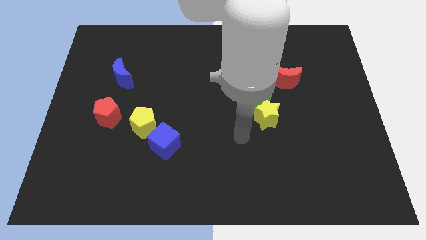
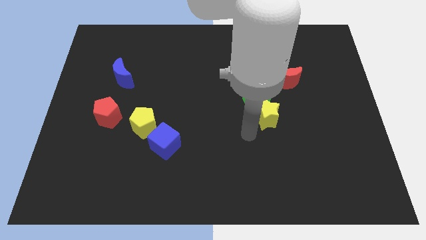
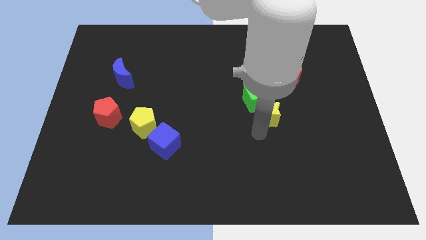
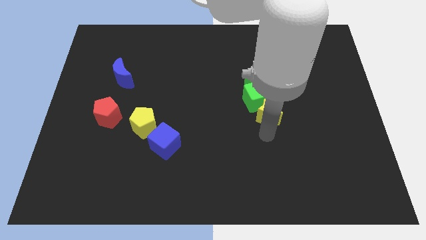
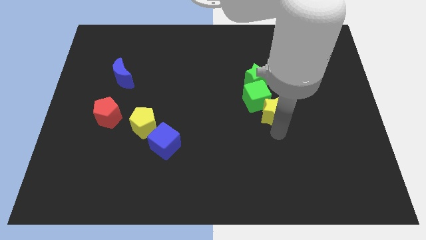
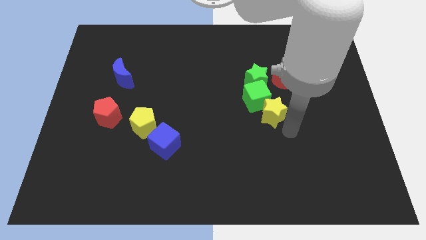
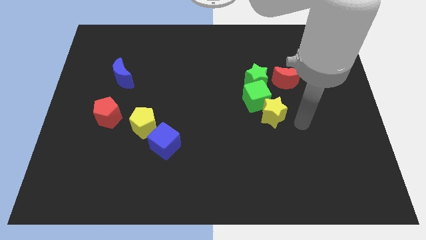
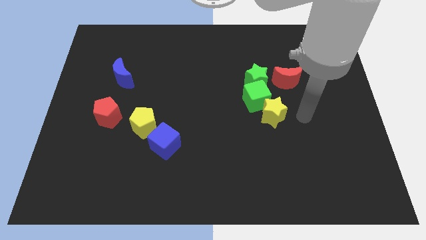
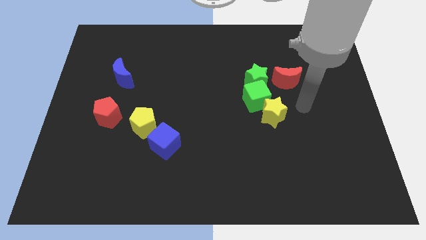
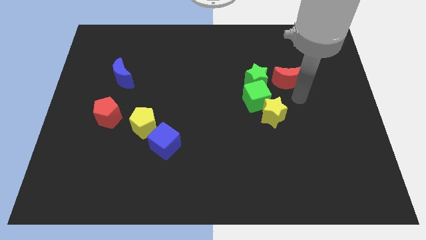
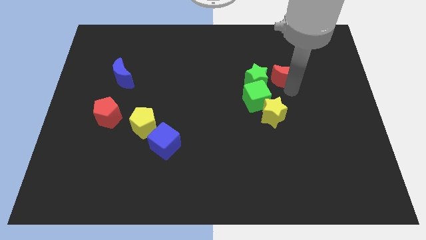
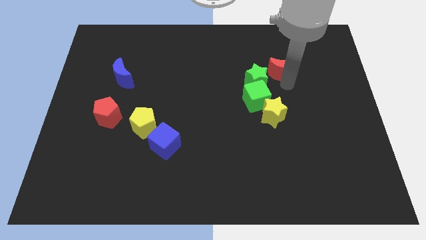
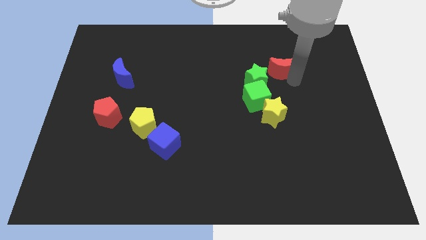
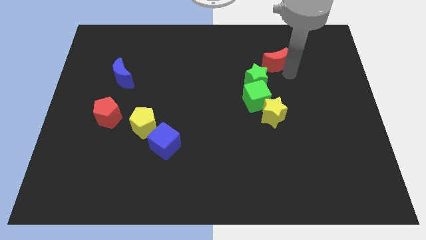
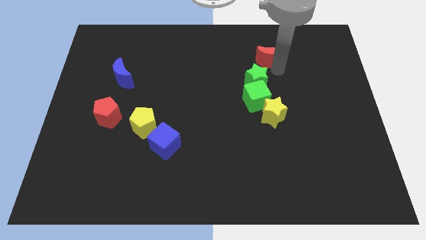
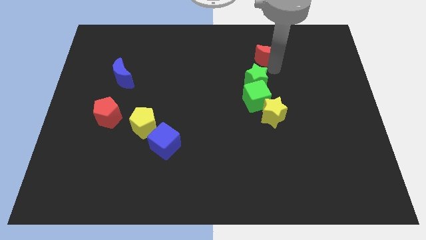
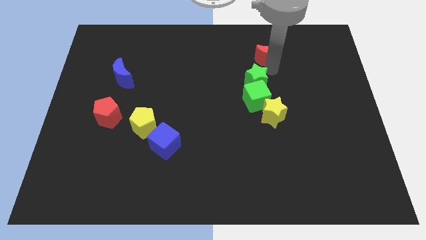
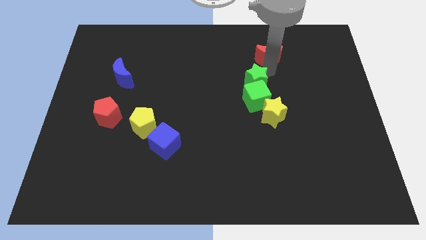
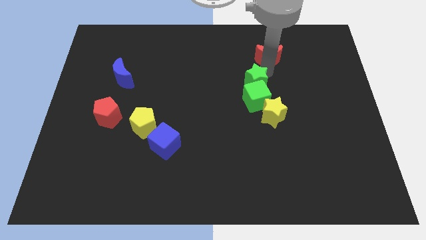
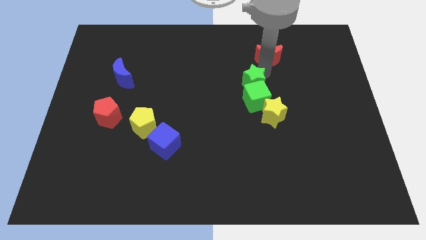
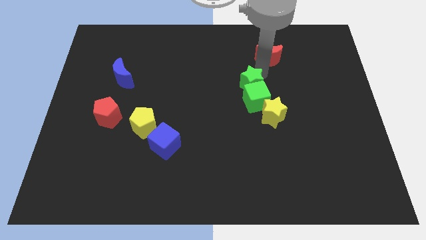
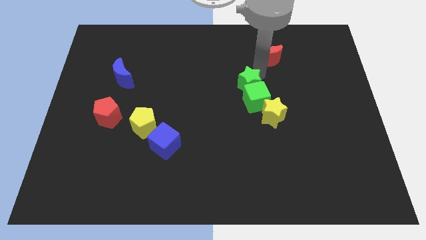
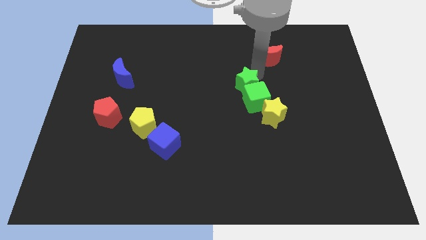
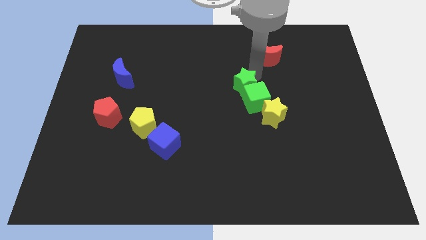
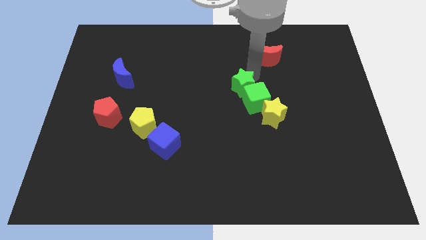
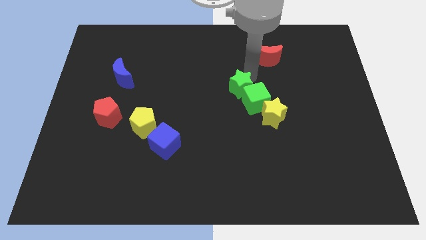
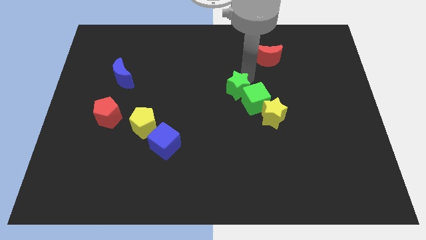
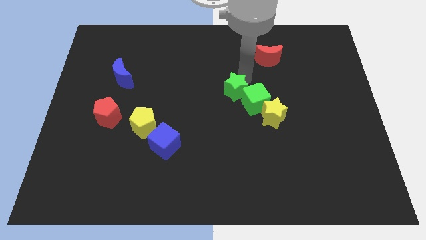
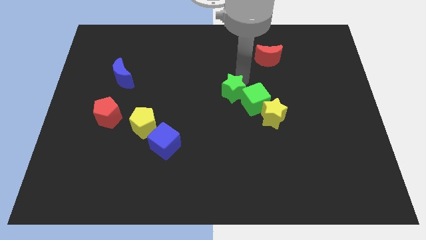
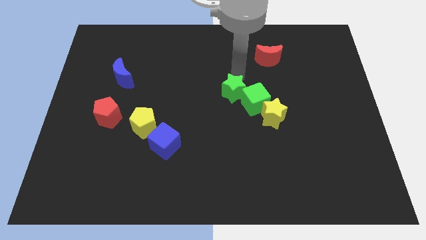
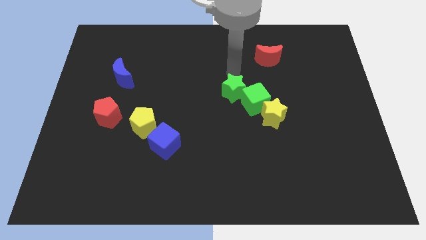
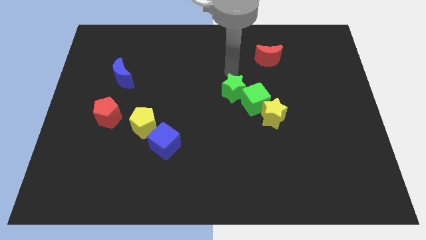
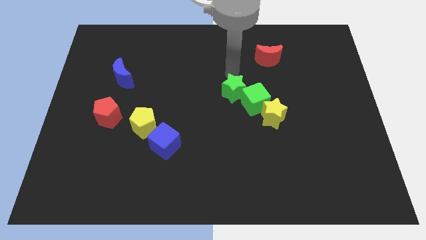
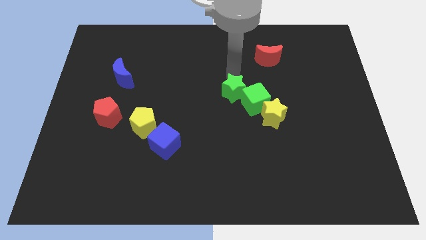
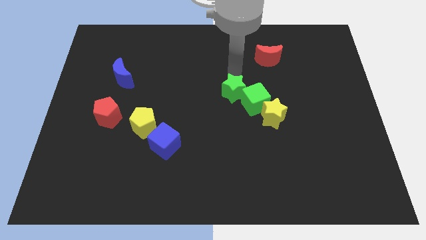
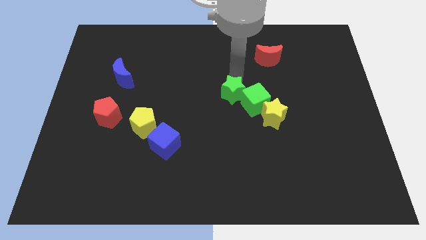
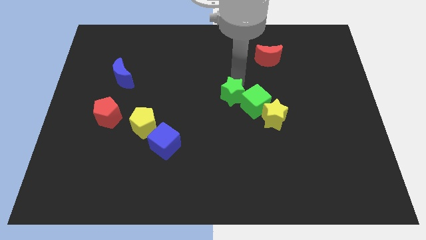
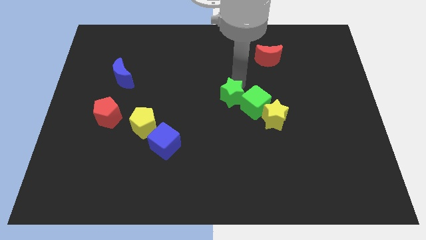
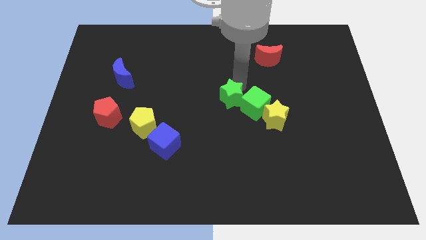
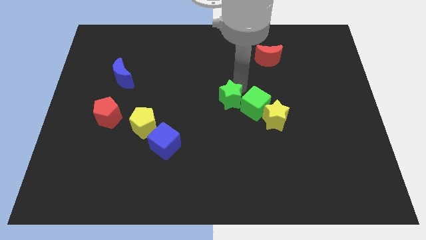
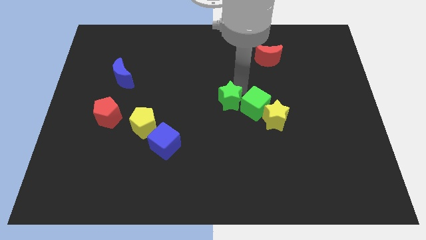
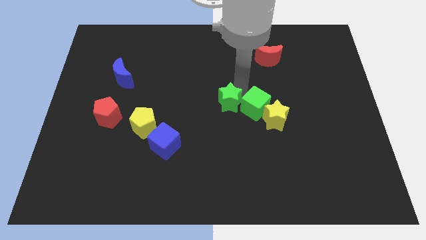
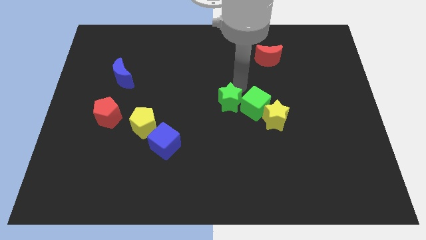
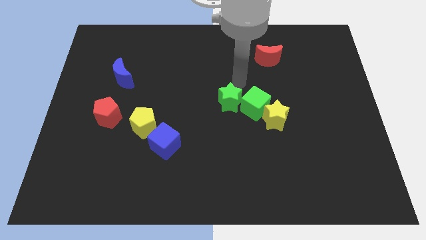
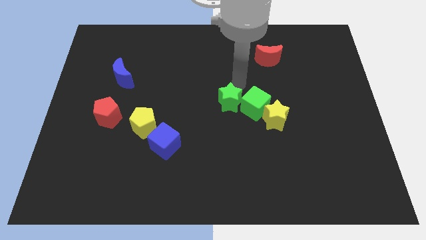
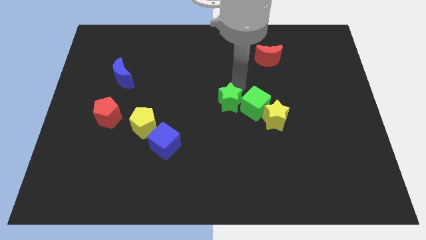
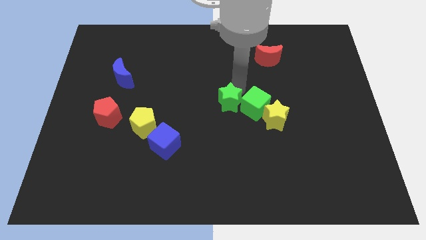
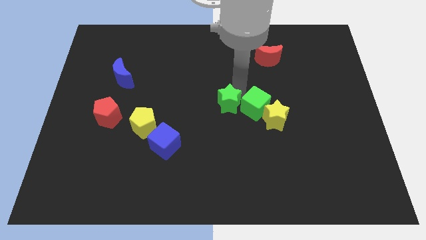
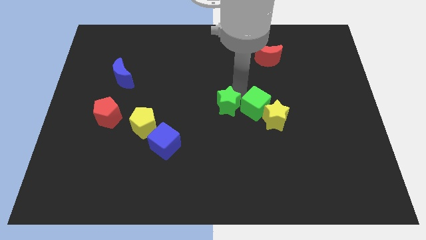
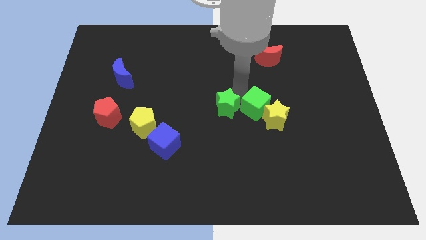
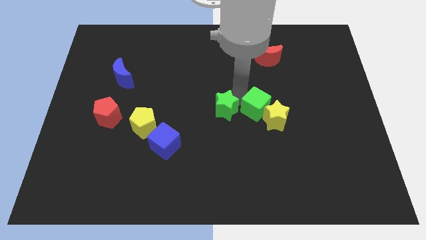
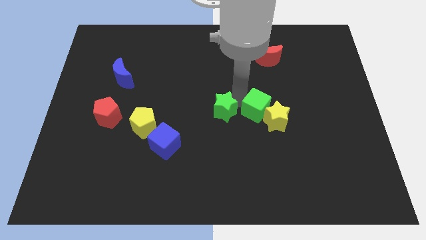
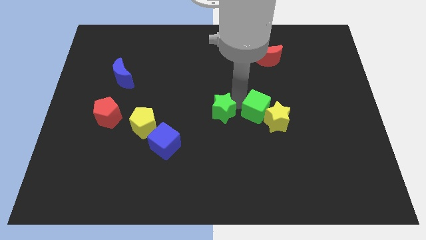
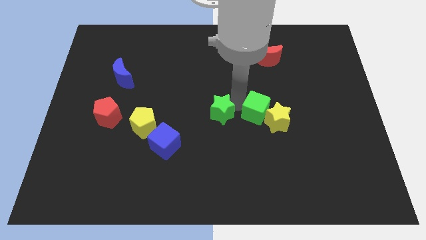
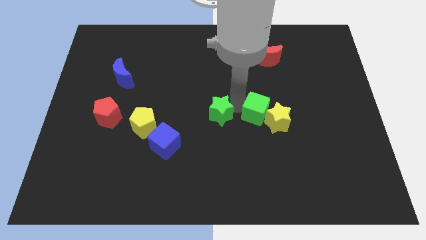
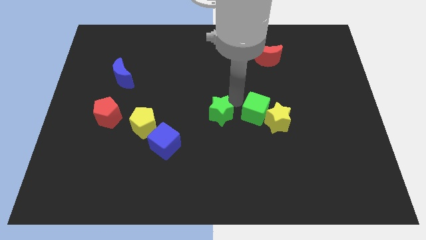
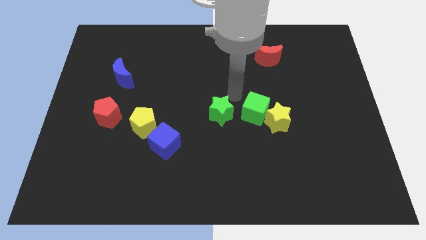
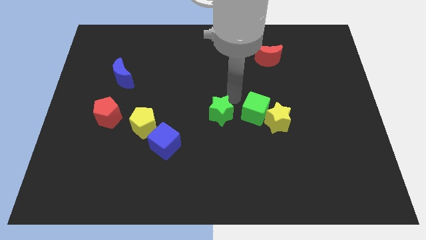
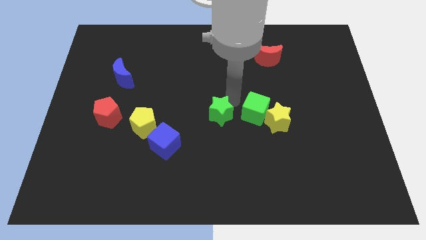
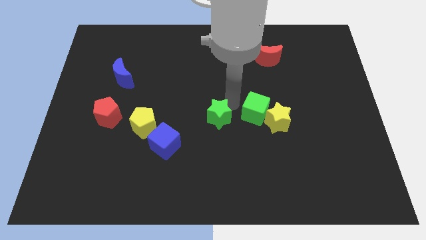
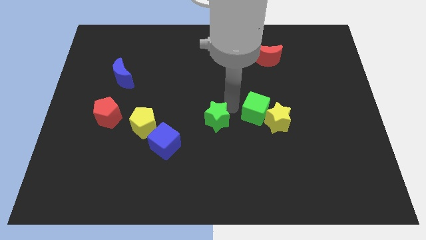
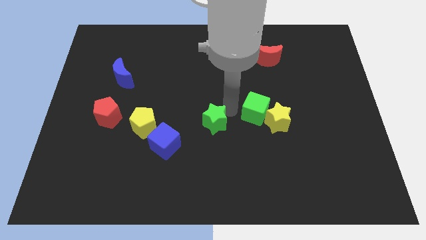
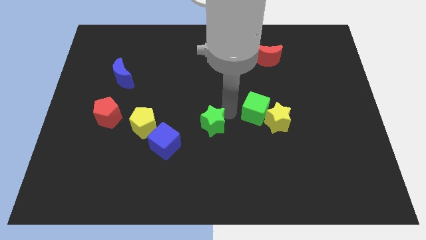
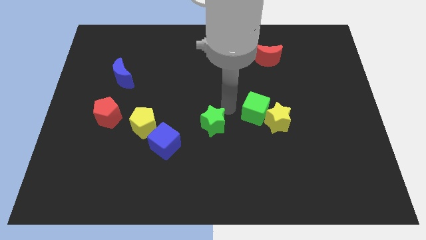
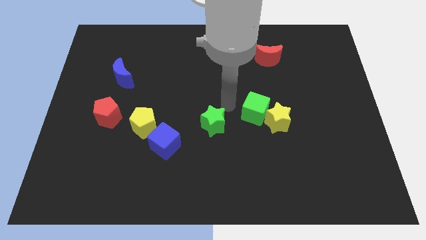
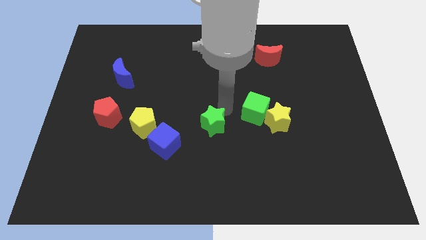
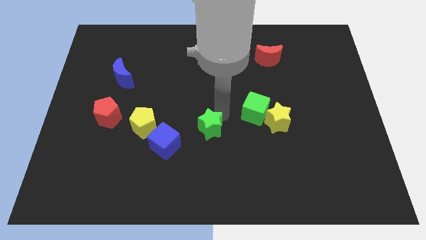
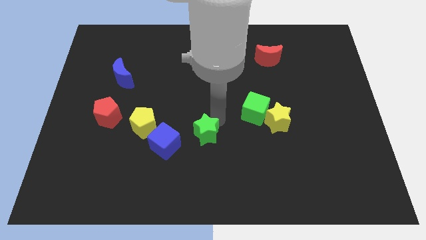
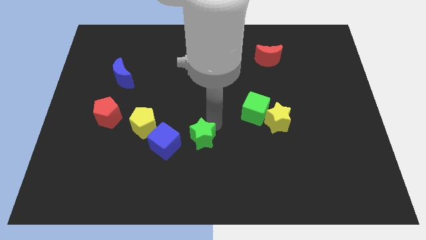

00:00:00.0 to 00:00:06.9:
move the green star downwards and then left

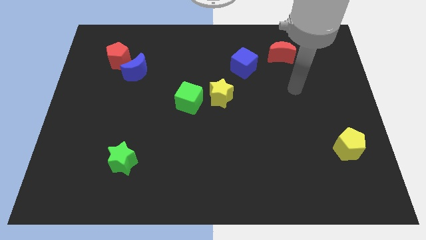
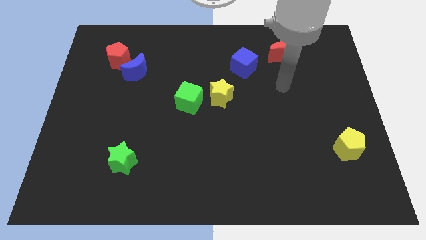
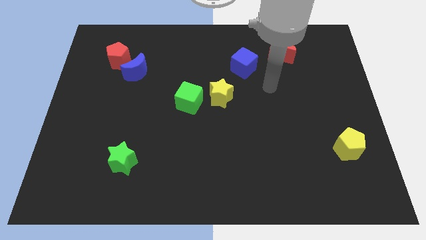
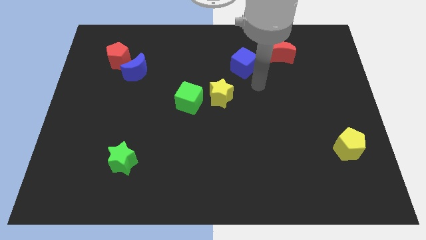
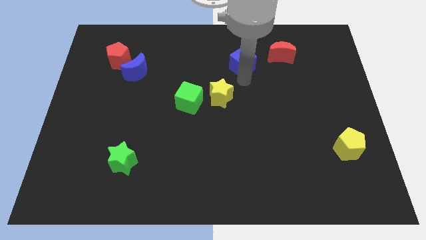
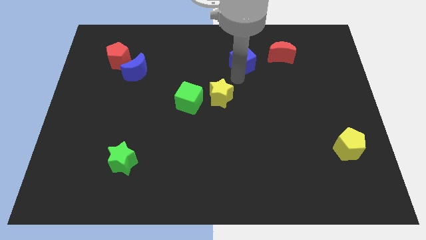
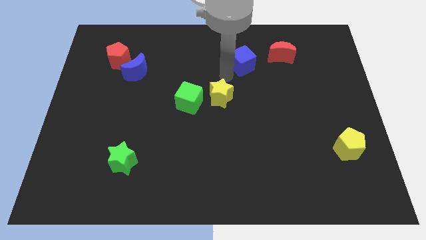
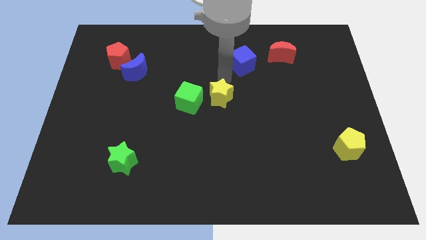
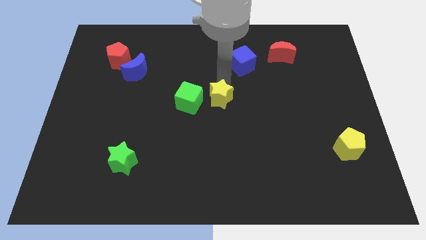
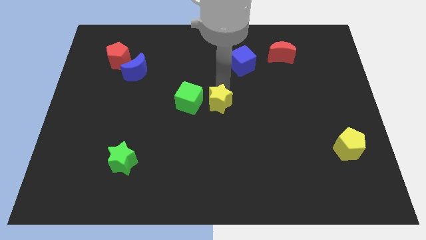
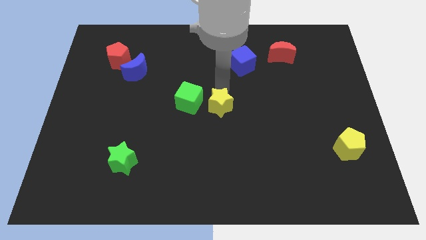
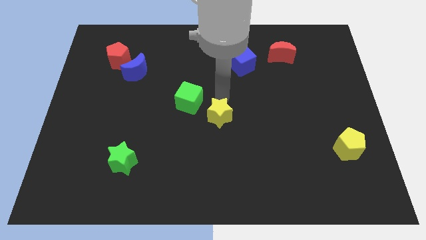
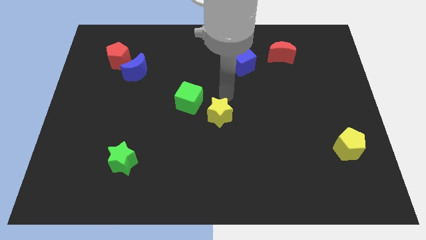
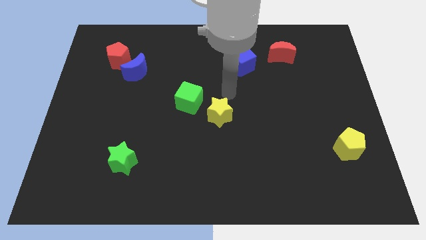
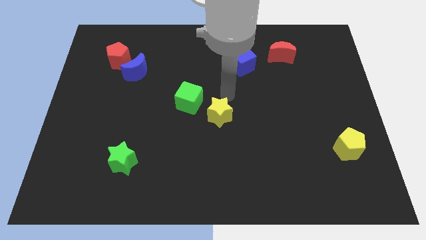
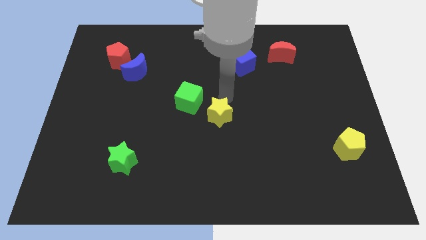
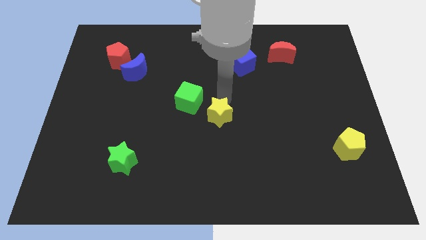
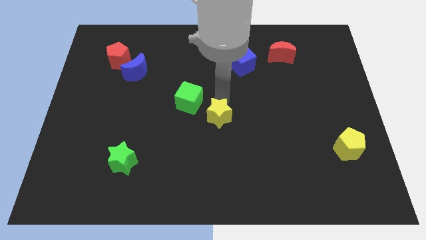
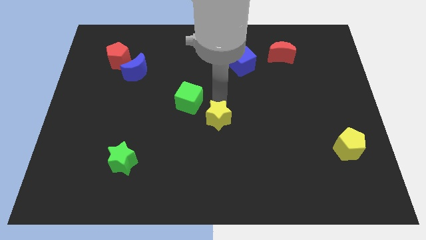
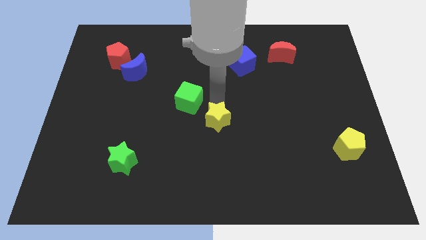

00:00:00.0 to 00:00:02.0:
move the yellow star a bit downwards
